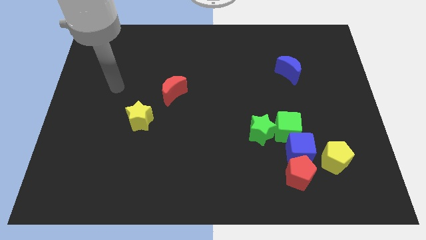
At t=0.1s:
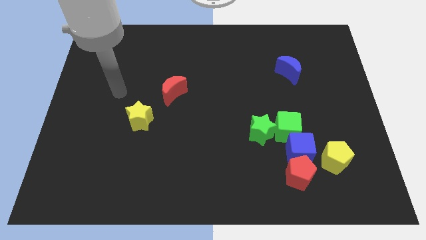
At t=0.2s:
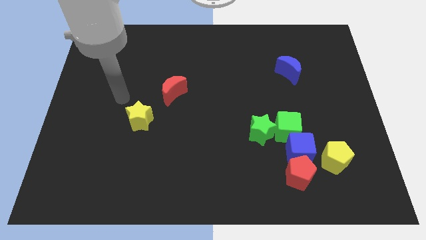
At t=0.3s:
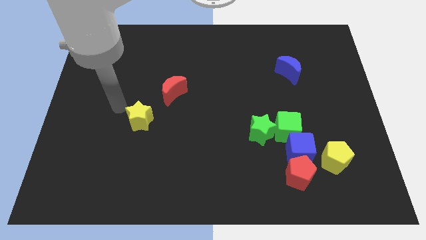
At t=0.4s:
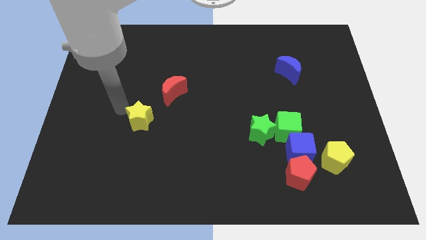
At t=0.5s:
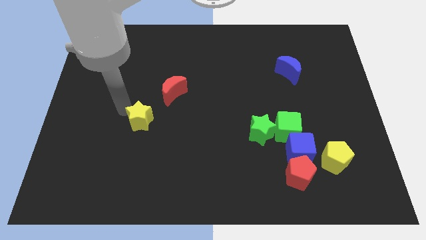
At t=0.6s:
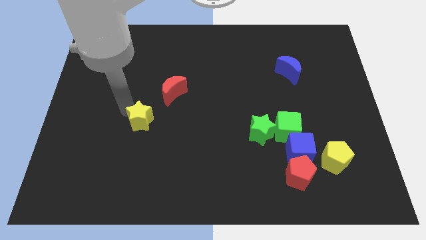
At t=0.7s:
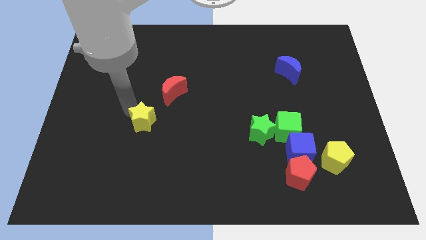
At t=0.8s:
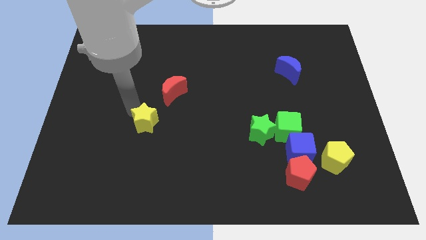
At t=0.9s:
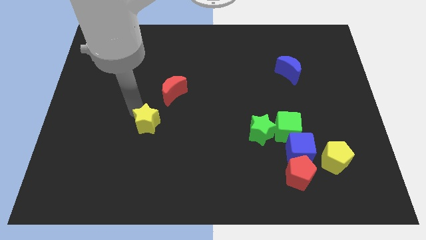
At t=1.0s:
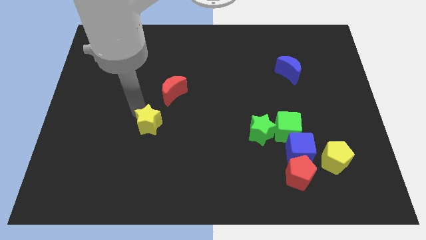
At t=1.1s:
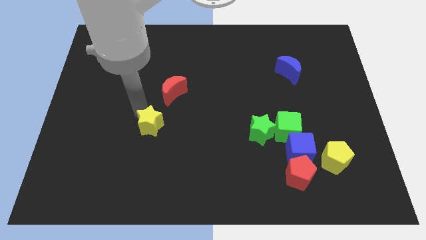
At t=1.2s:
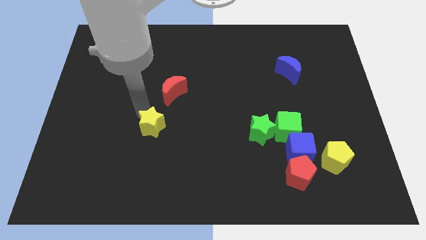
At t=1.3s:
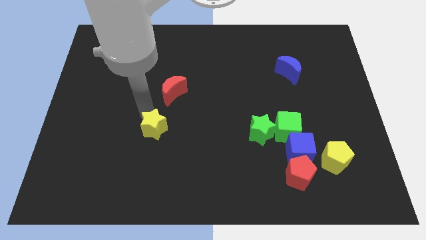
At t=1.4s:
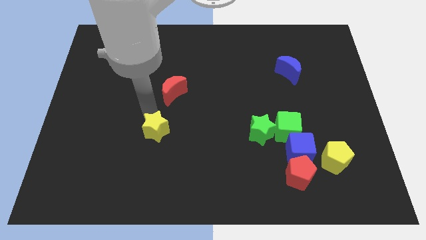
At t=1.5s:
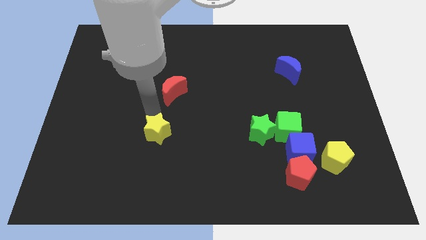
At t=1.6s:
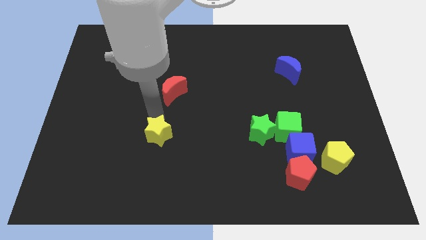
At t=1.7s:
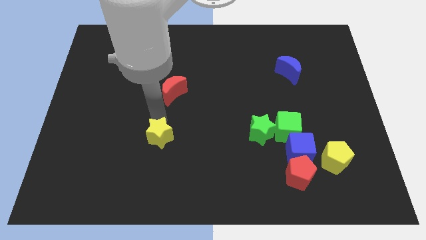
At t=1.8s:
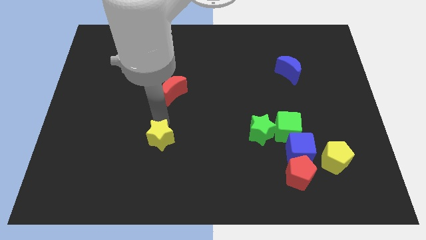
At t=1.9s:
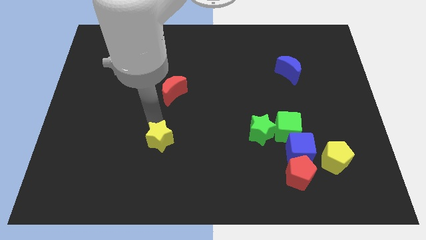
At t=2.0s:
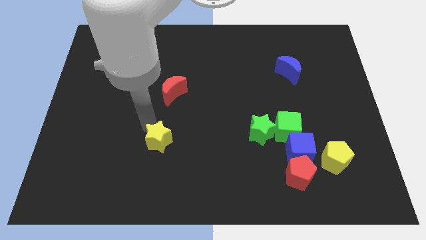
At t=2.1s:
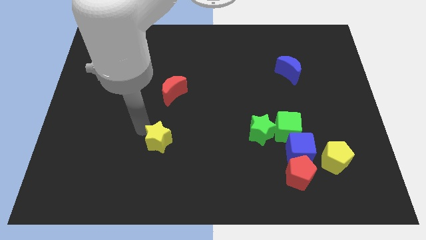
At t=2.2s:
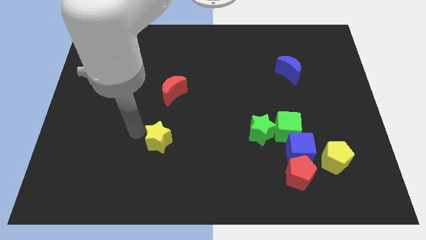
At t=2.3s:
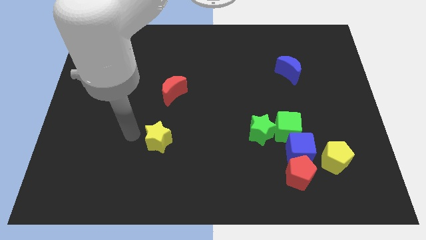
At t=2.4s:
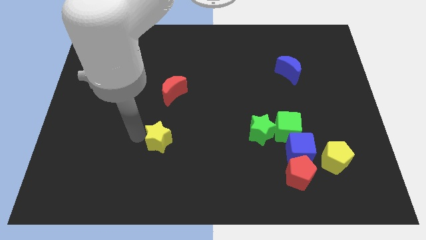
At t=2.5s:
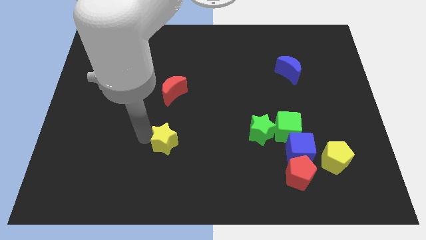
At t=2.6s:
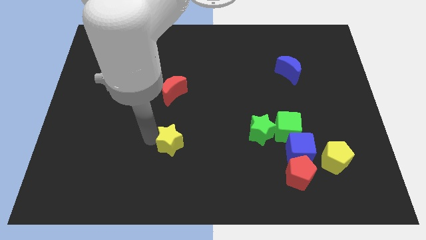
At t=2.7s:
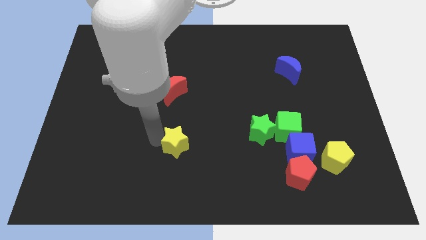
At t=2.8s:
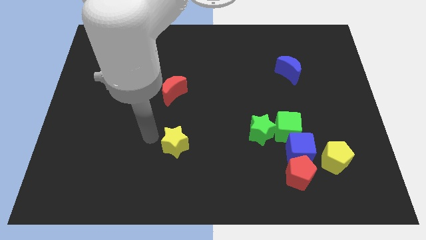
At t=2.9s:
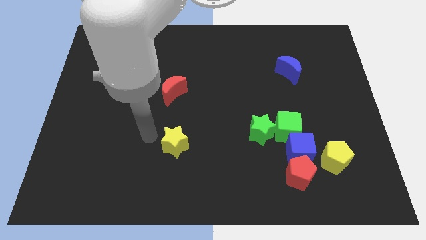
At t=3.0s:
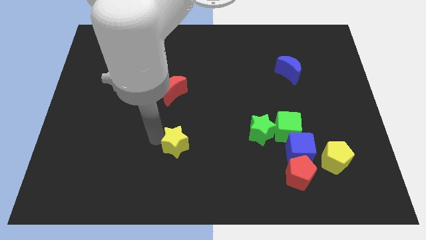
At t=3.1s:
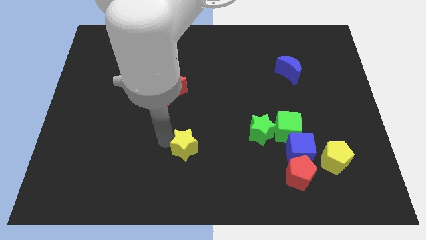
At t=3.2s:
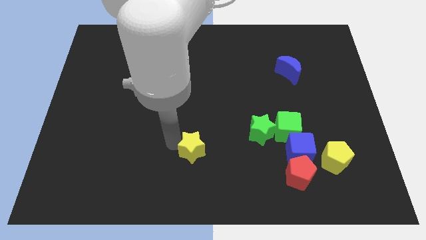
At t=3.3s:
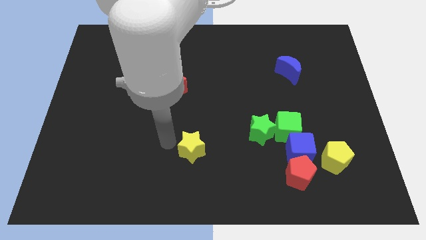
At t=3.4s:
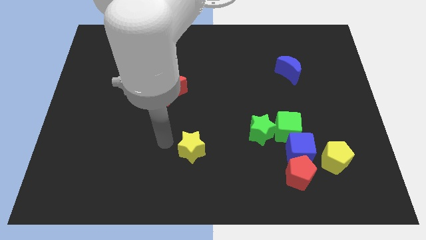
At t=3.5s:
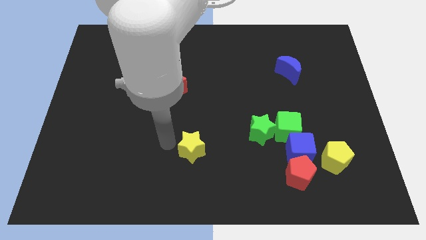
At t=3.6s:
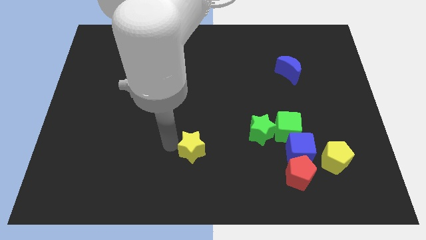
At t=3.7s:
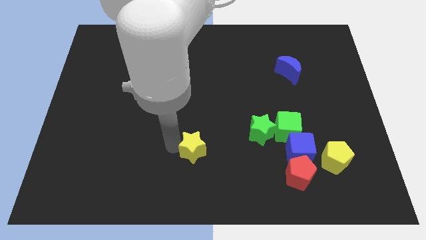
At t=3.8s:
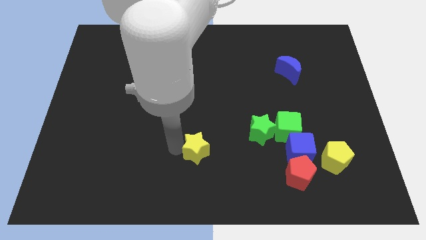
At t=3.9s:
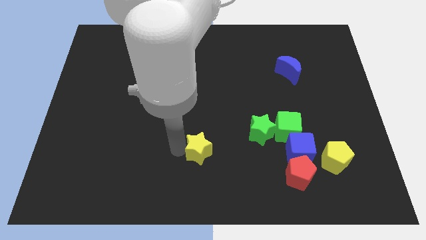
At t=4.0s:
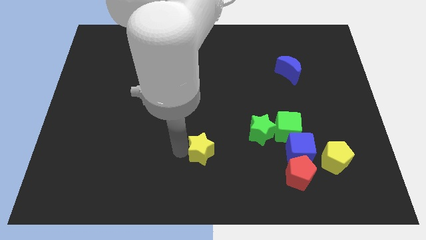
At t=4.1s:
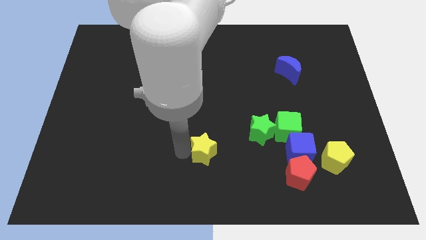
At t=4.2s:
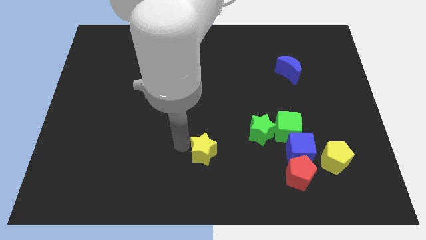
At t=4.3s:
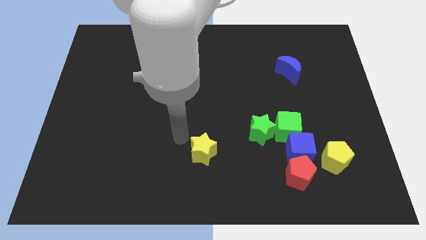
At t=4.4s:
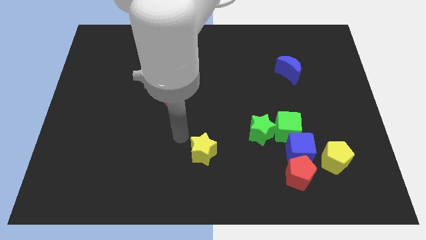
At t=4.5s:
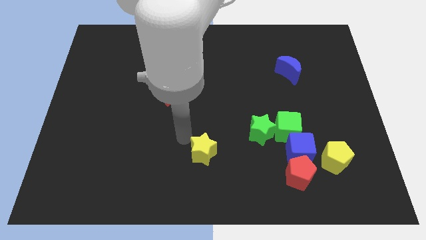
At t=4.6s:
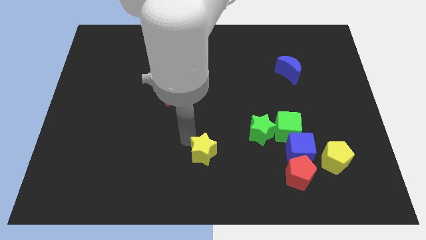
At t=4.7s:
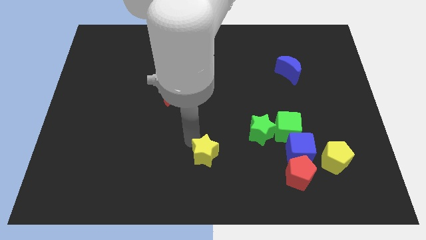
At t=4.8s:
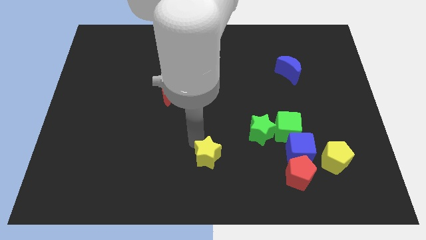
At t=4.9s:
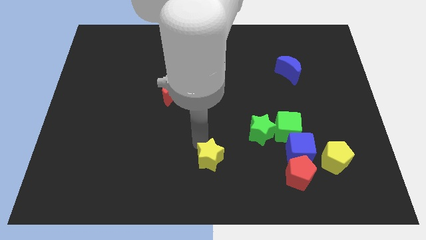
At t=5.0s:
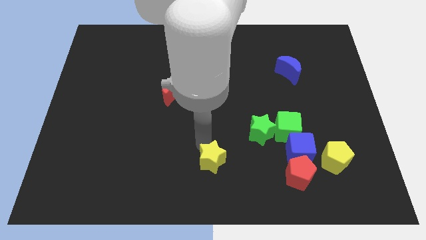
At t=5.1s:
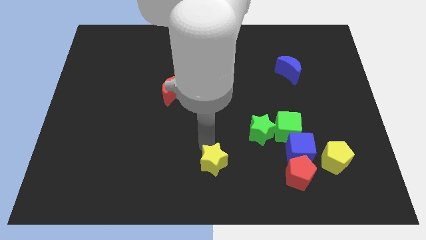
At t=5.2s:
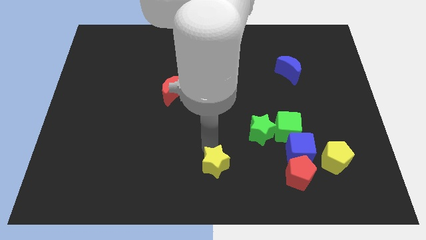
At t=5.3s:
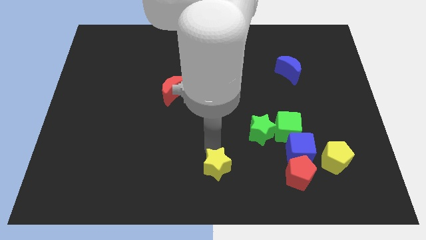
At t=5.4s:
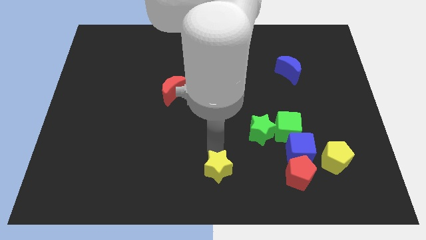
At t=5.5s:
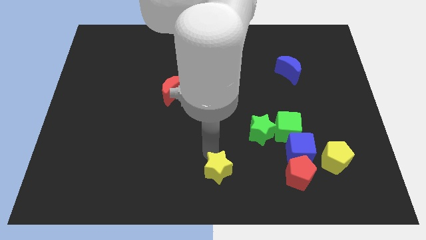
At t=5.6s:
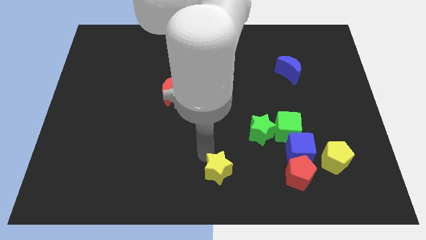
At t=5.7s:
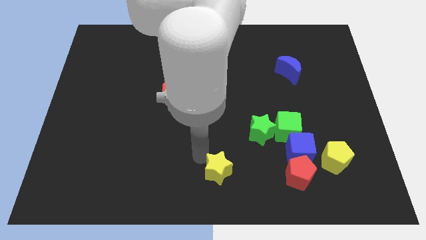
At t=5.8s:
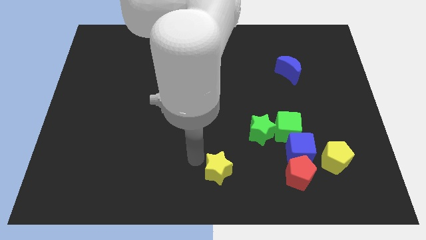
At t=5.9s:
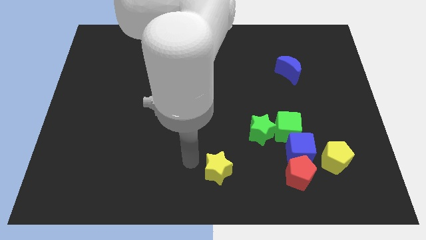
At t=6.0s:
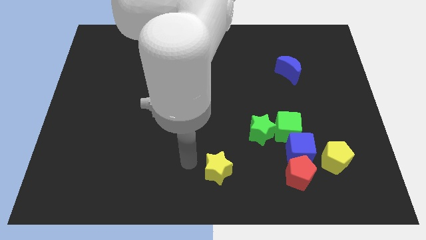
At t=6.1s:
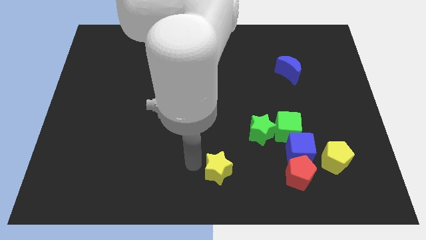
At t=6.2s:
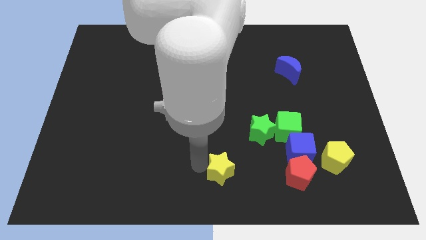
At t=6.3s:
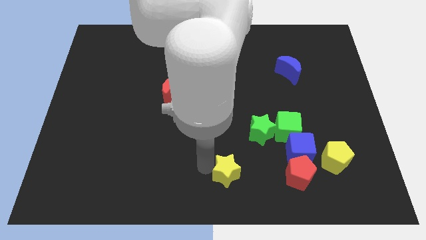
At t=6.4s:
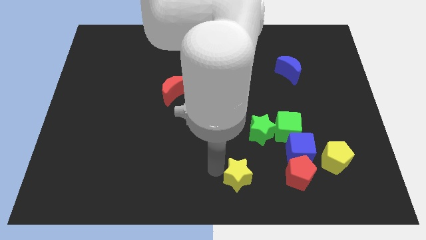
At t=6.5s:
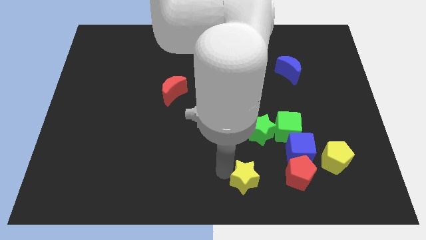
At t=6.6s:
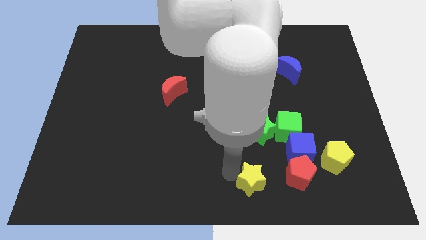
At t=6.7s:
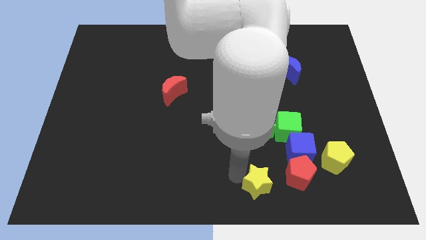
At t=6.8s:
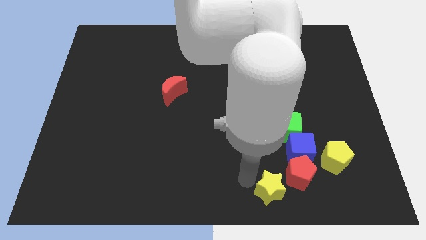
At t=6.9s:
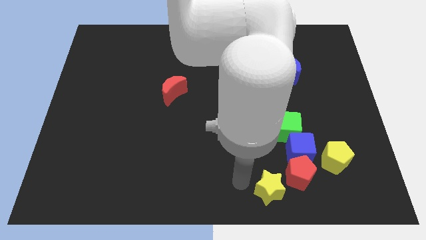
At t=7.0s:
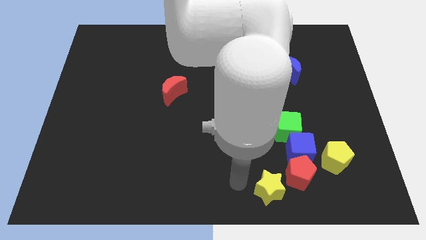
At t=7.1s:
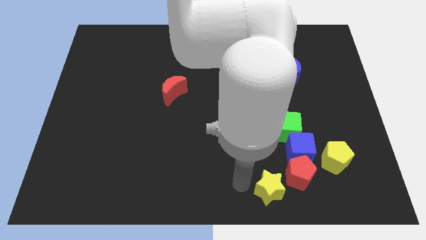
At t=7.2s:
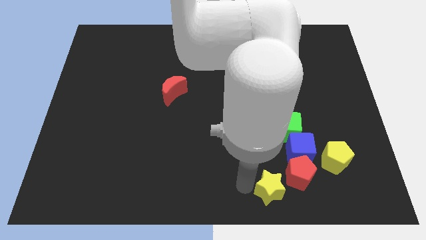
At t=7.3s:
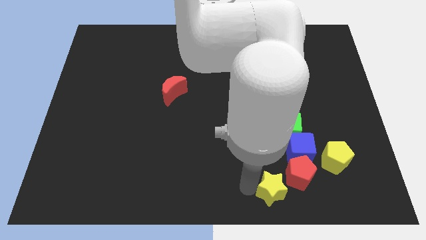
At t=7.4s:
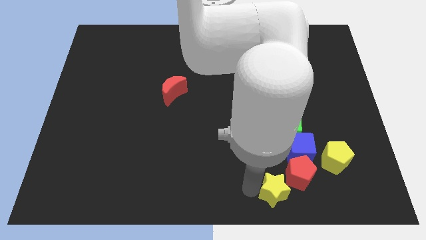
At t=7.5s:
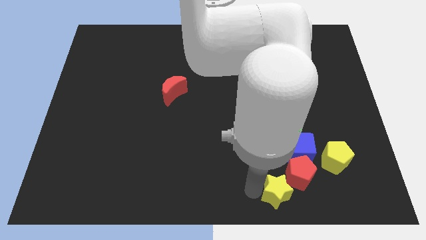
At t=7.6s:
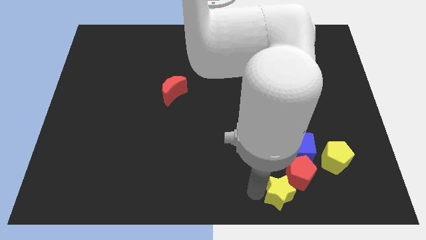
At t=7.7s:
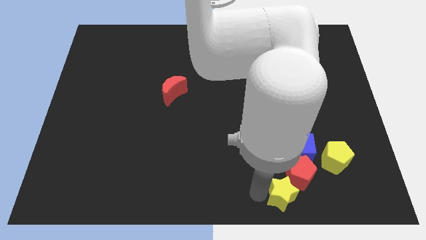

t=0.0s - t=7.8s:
put the yellow star to the bottom of the green cube
